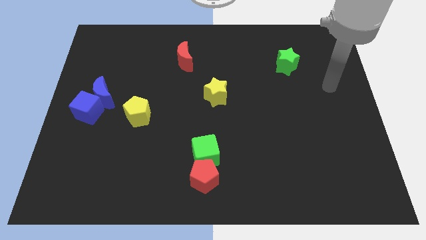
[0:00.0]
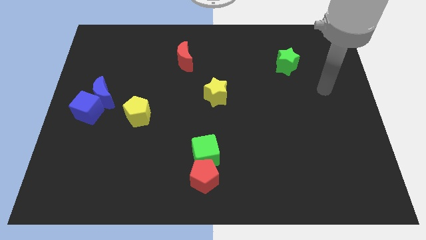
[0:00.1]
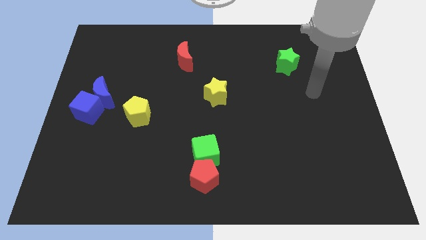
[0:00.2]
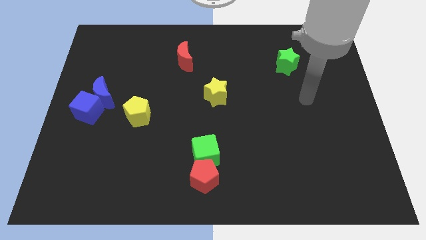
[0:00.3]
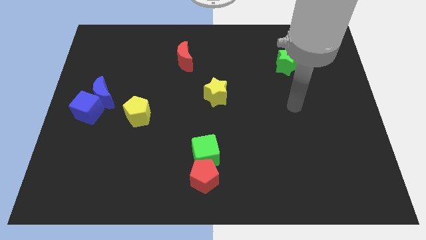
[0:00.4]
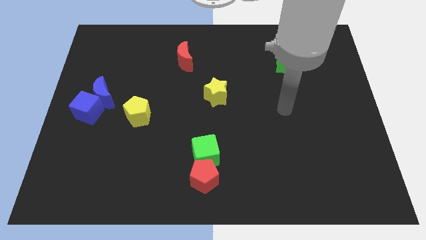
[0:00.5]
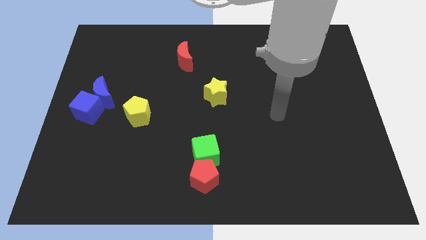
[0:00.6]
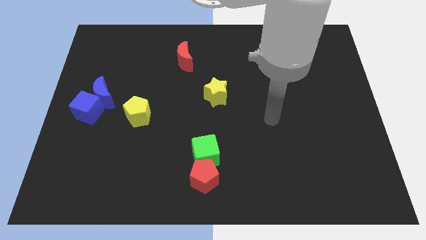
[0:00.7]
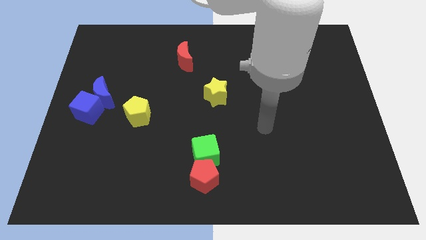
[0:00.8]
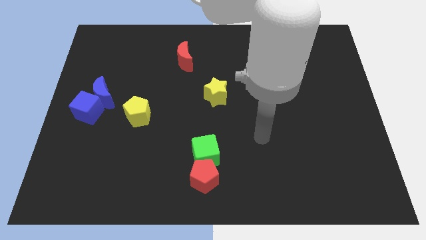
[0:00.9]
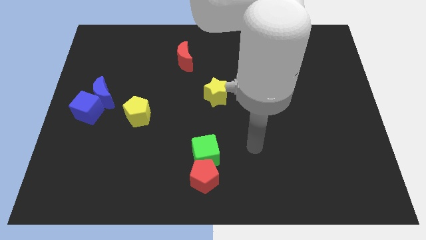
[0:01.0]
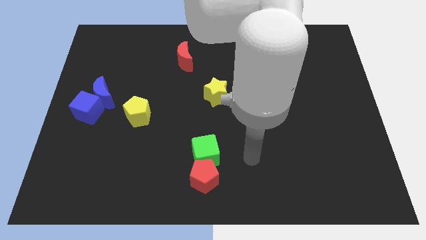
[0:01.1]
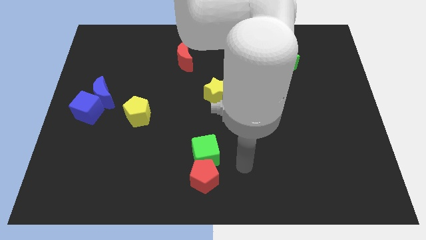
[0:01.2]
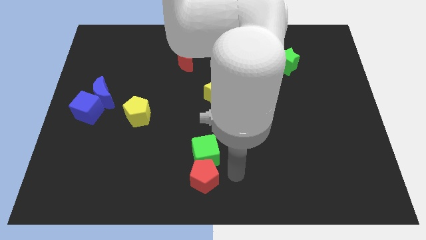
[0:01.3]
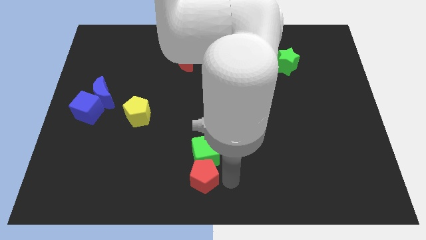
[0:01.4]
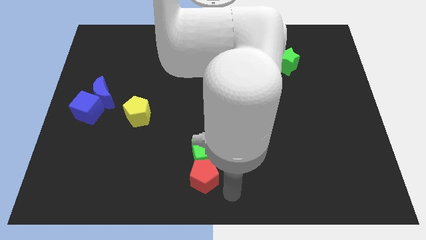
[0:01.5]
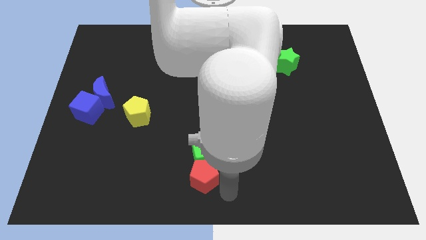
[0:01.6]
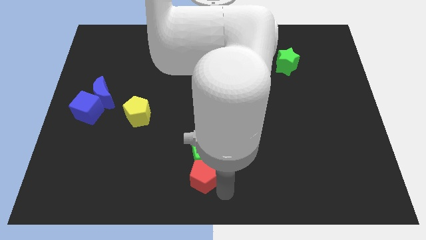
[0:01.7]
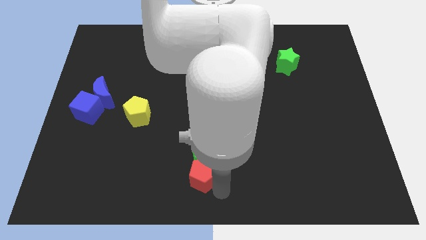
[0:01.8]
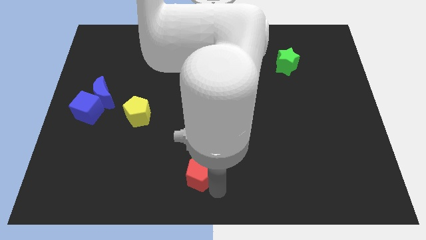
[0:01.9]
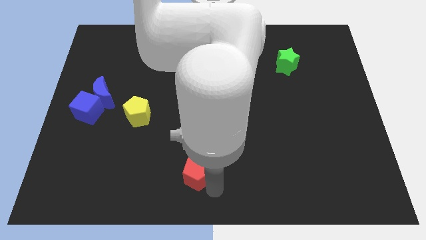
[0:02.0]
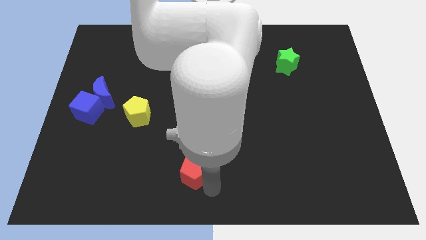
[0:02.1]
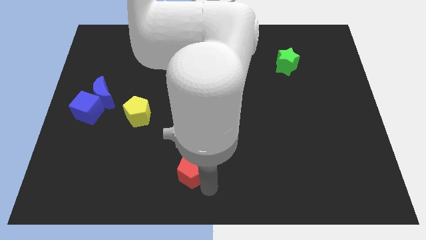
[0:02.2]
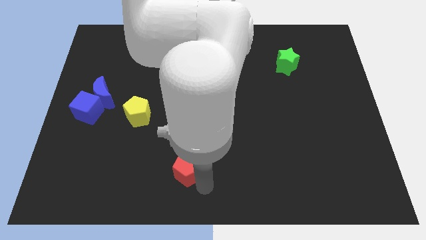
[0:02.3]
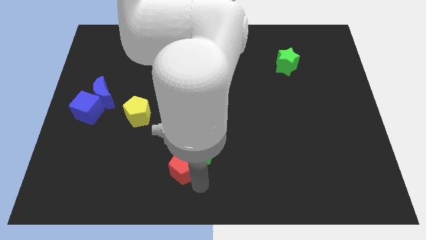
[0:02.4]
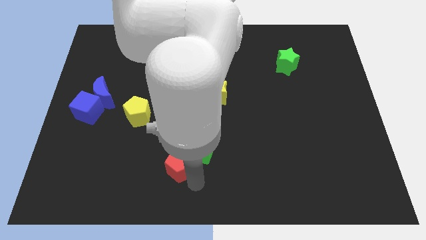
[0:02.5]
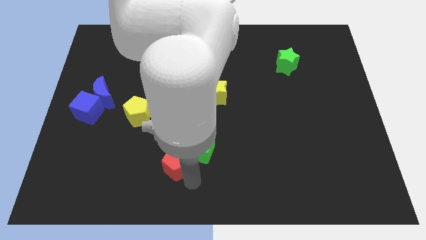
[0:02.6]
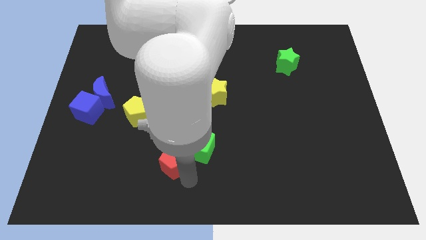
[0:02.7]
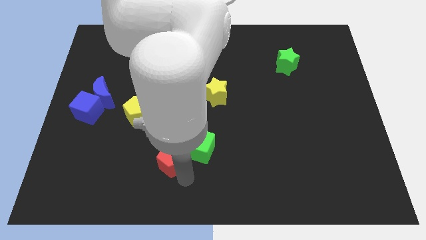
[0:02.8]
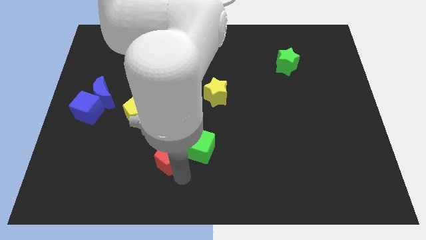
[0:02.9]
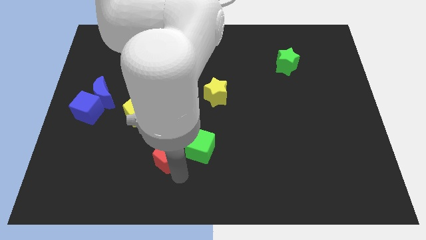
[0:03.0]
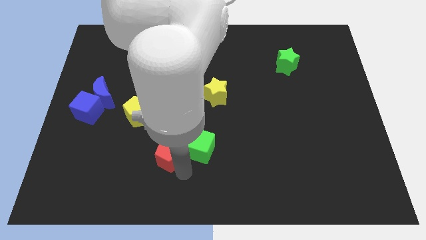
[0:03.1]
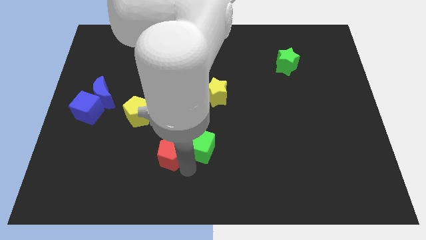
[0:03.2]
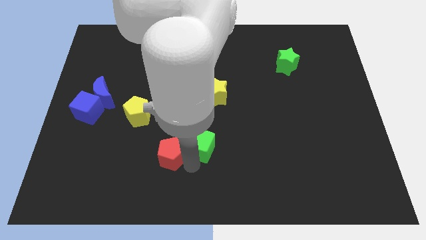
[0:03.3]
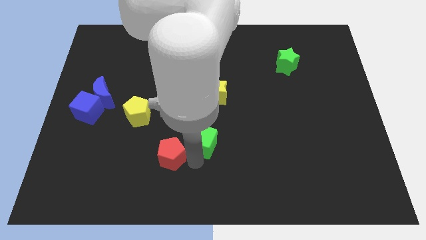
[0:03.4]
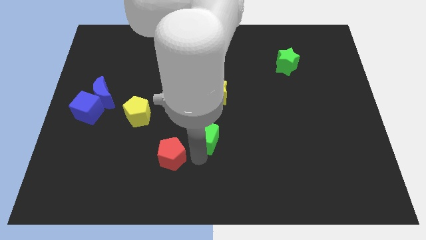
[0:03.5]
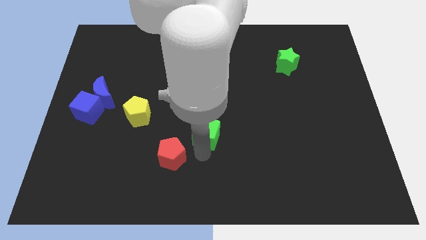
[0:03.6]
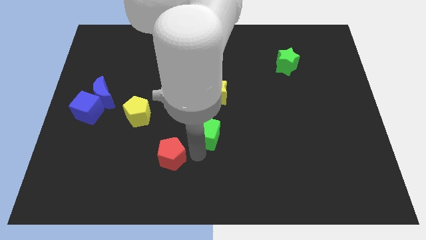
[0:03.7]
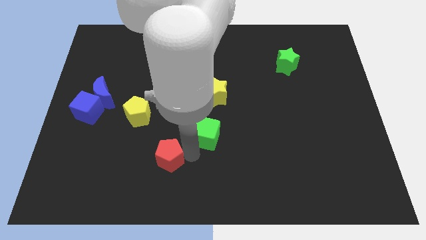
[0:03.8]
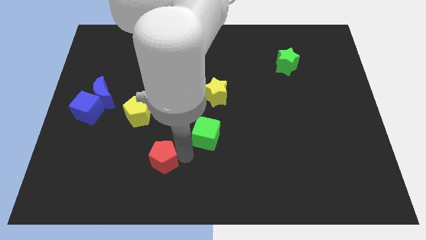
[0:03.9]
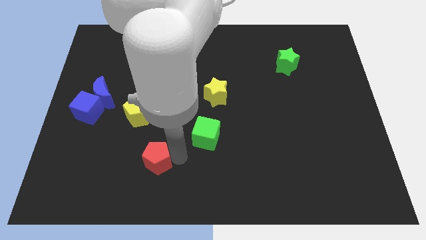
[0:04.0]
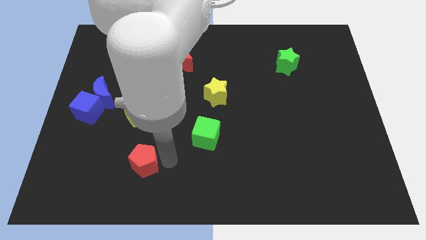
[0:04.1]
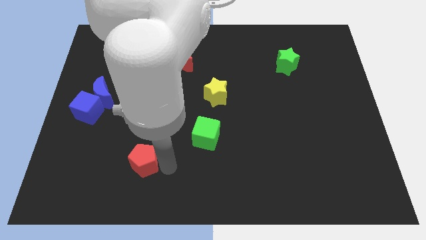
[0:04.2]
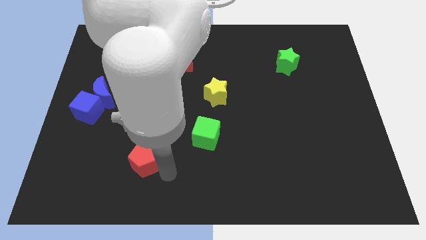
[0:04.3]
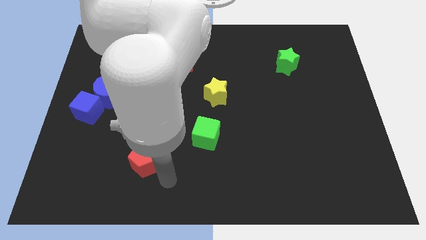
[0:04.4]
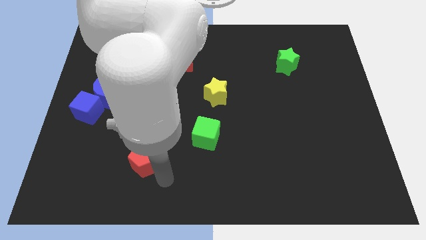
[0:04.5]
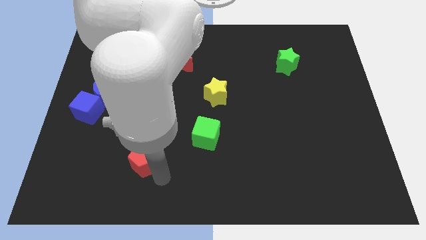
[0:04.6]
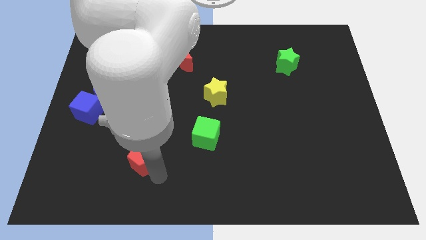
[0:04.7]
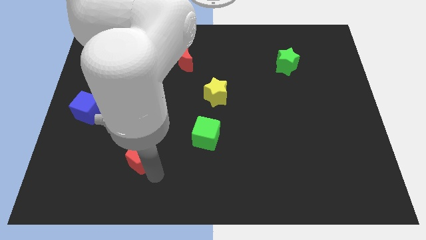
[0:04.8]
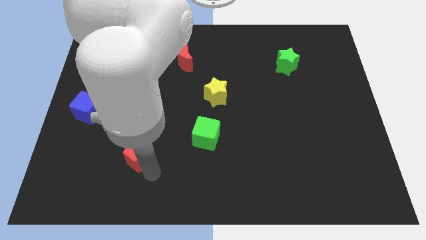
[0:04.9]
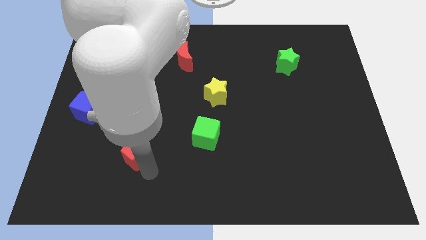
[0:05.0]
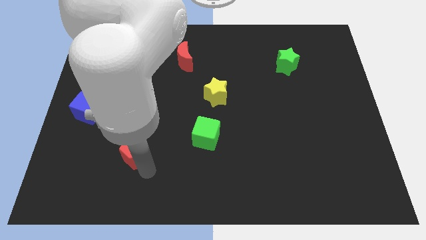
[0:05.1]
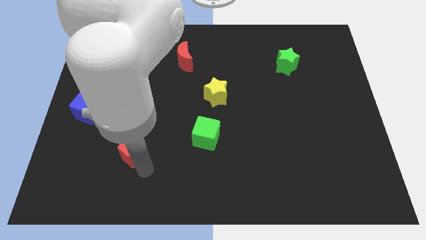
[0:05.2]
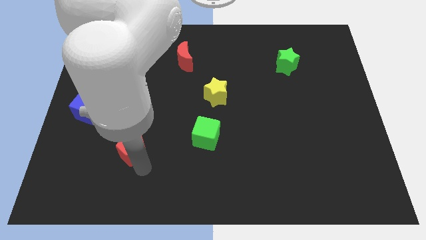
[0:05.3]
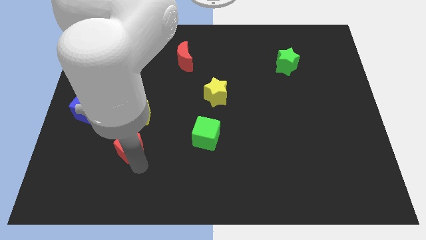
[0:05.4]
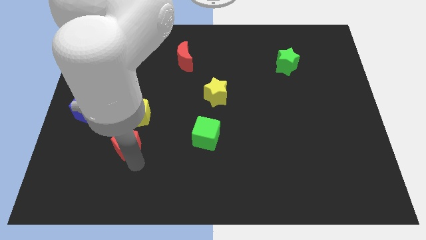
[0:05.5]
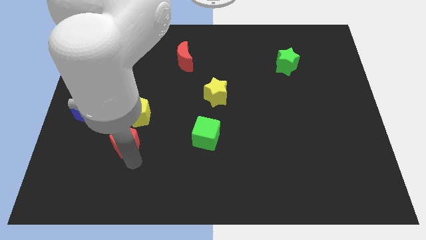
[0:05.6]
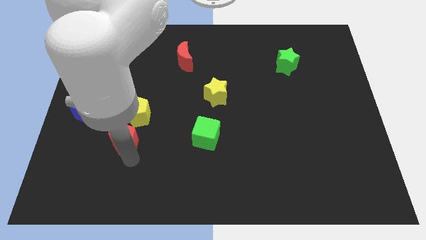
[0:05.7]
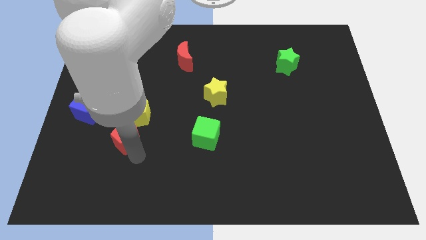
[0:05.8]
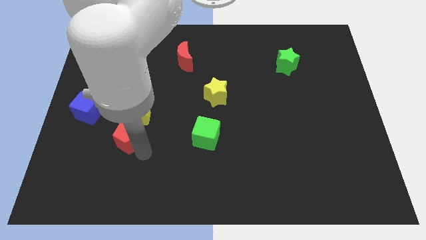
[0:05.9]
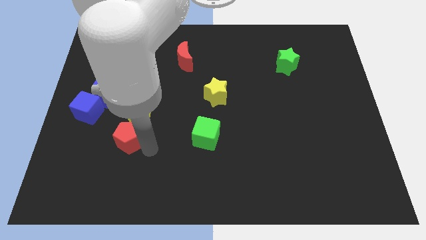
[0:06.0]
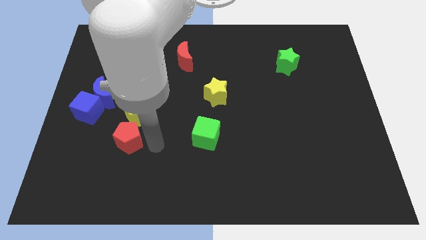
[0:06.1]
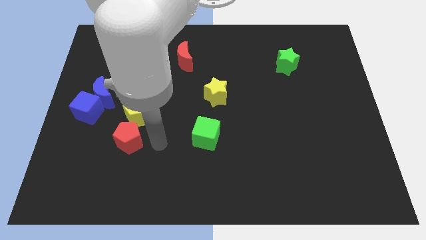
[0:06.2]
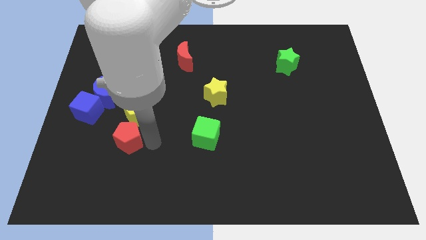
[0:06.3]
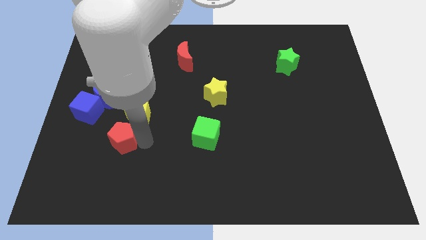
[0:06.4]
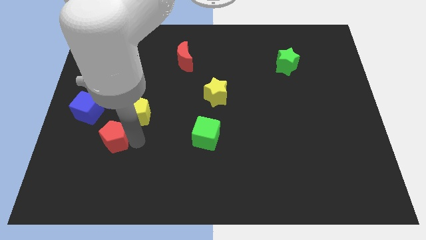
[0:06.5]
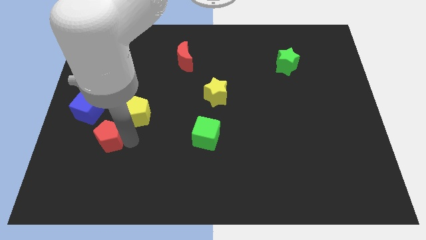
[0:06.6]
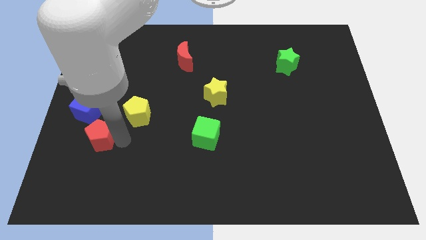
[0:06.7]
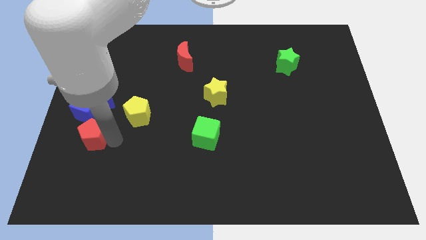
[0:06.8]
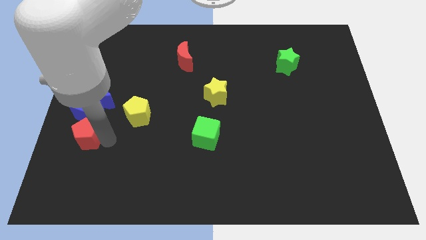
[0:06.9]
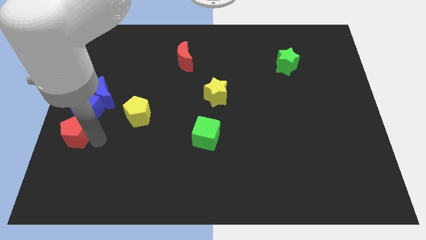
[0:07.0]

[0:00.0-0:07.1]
push the red pentagon to the center left
